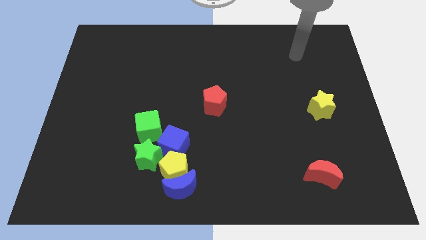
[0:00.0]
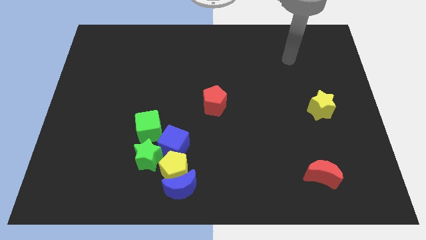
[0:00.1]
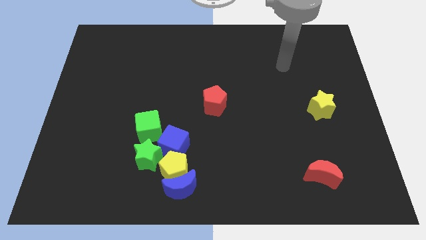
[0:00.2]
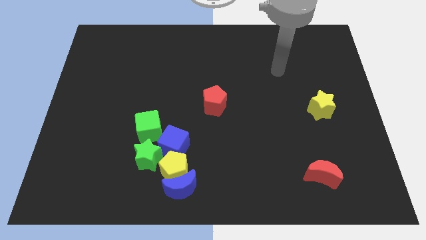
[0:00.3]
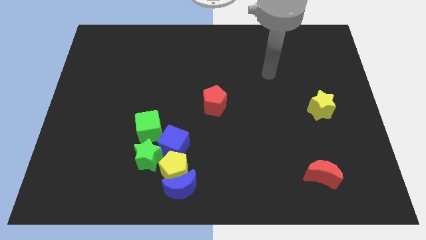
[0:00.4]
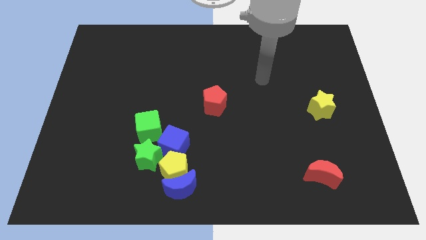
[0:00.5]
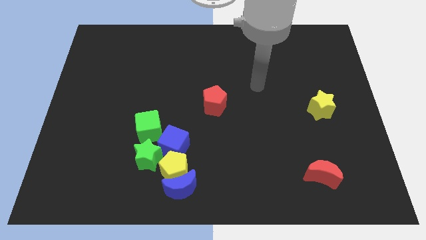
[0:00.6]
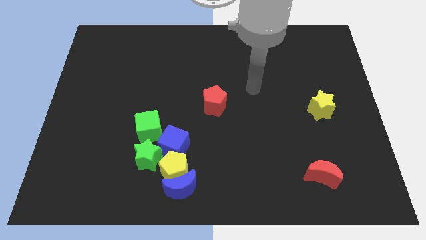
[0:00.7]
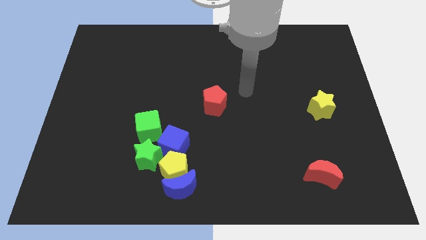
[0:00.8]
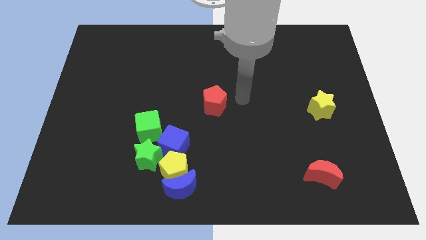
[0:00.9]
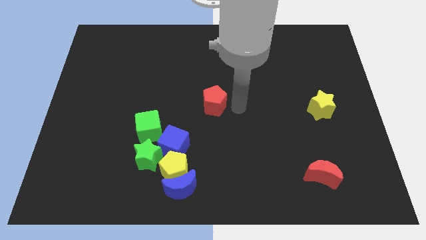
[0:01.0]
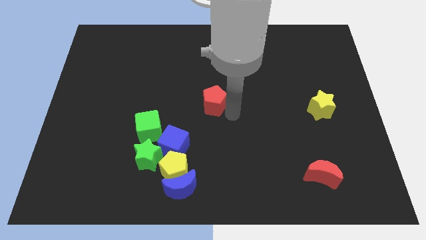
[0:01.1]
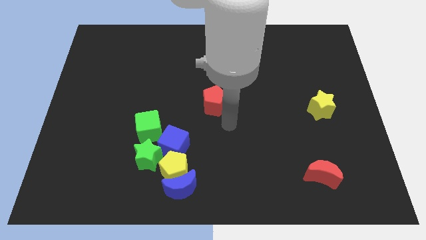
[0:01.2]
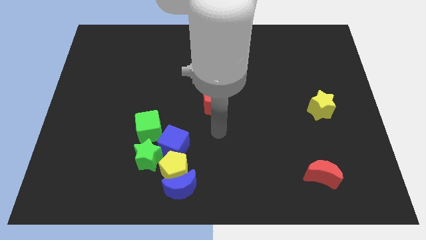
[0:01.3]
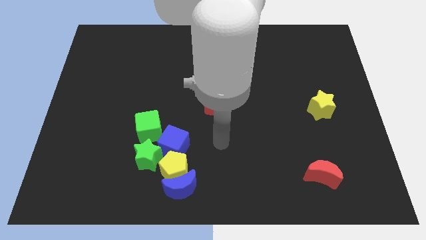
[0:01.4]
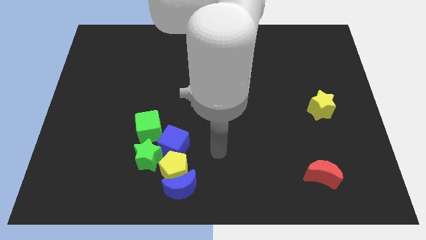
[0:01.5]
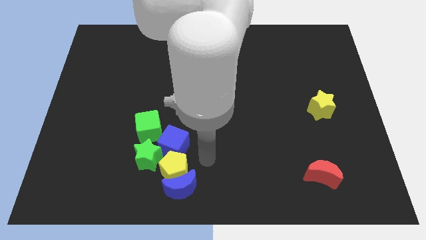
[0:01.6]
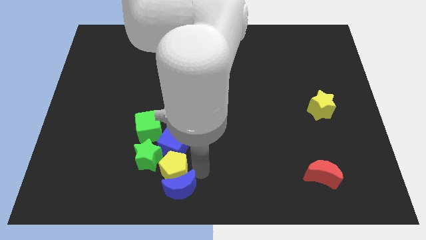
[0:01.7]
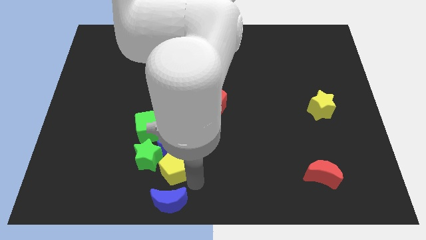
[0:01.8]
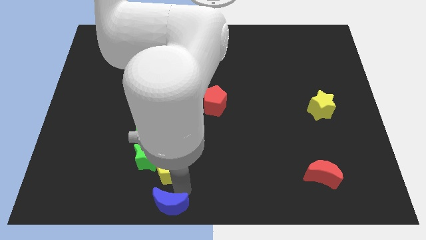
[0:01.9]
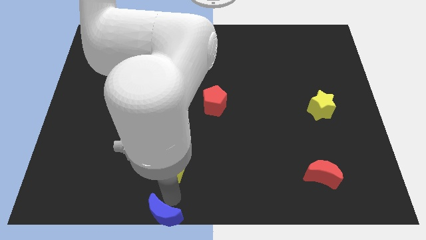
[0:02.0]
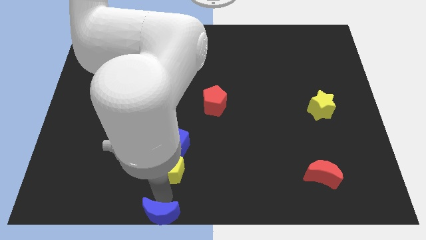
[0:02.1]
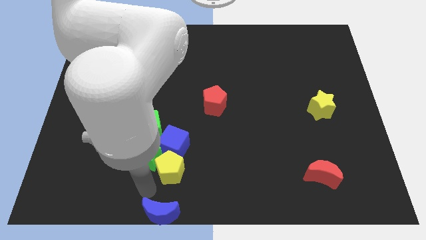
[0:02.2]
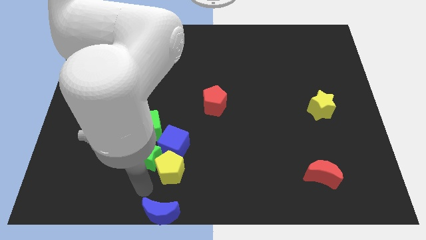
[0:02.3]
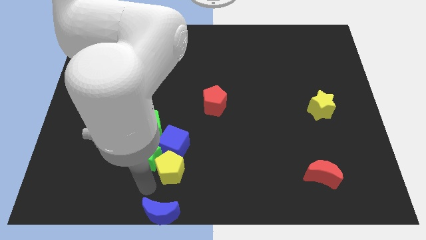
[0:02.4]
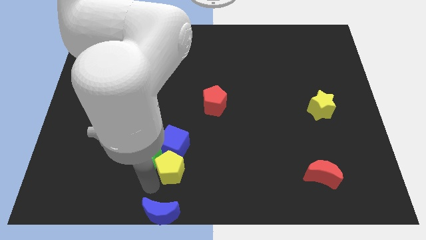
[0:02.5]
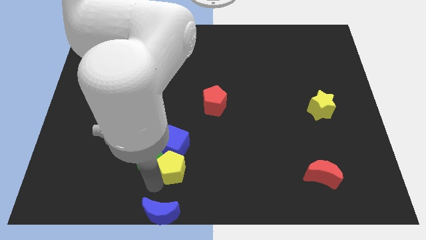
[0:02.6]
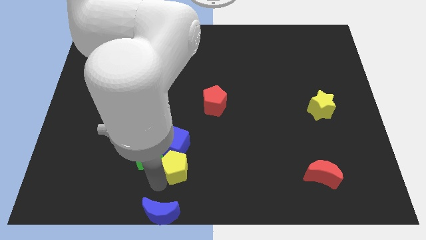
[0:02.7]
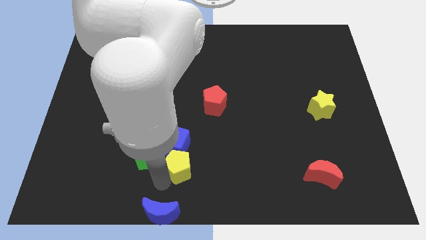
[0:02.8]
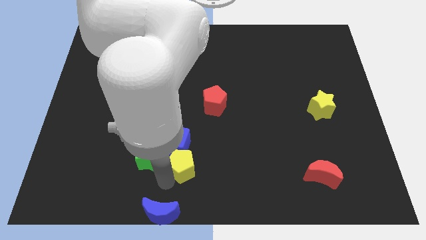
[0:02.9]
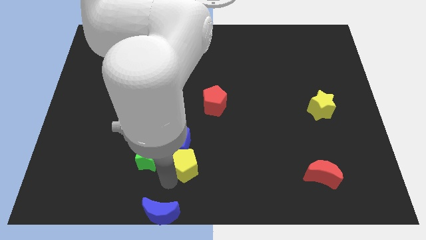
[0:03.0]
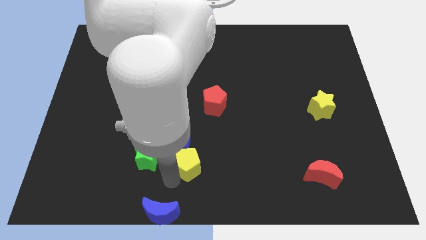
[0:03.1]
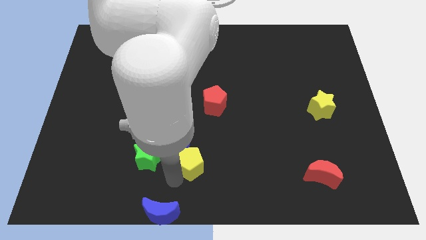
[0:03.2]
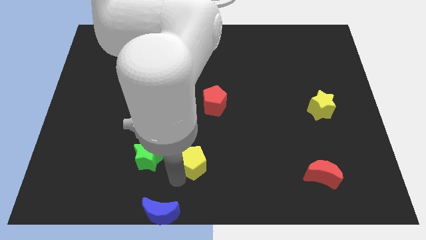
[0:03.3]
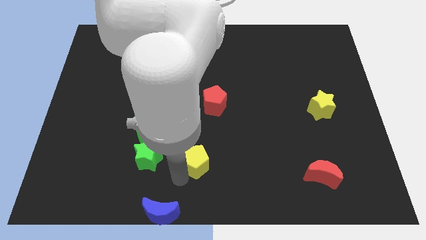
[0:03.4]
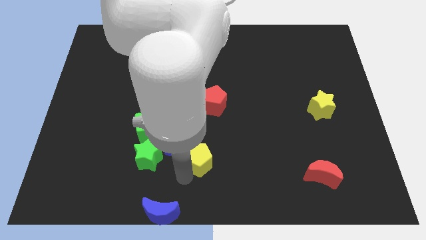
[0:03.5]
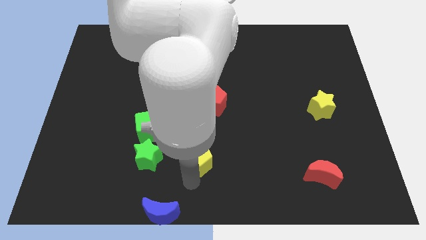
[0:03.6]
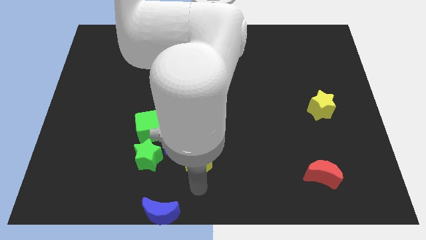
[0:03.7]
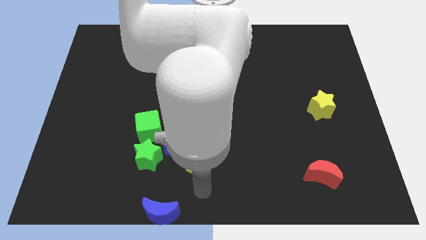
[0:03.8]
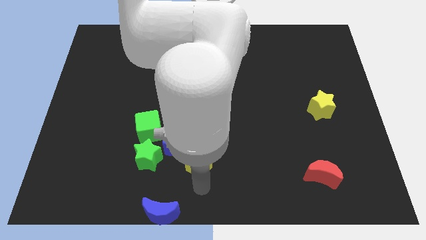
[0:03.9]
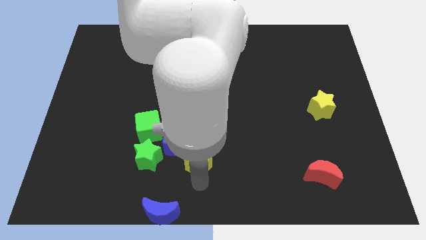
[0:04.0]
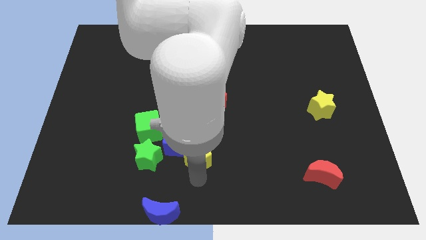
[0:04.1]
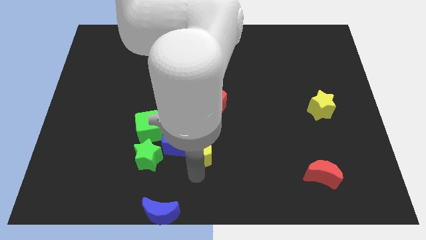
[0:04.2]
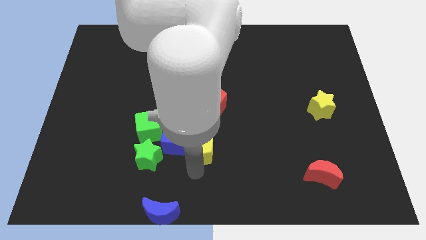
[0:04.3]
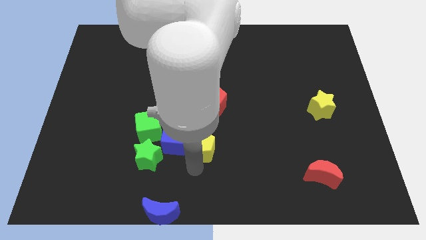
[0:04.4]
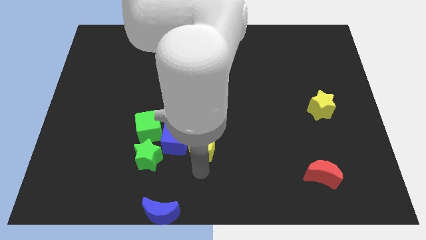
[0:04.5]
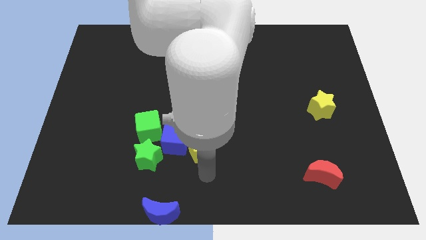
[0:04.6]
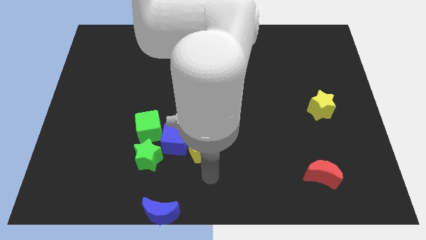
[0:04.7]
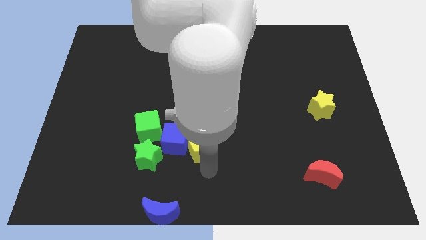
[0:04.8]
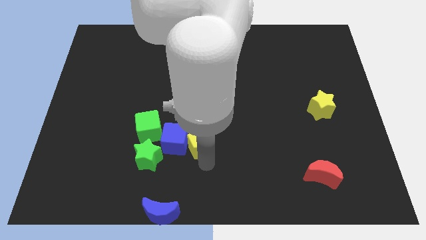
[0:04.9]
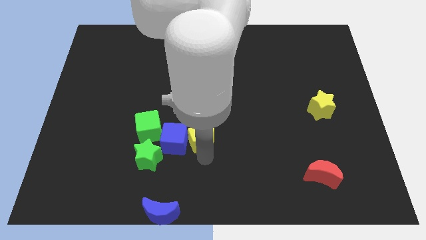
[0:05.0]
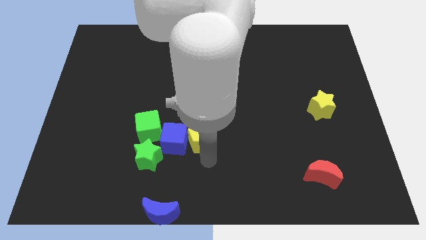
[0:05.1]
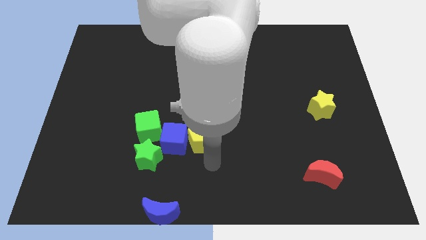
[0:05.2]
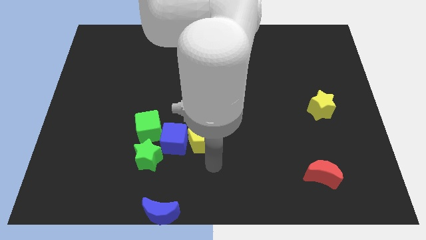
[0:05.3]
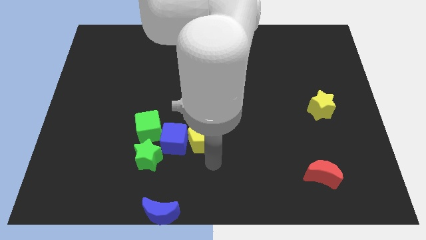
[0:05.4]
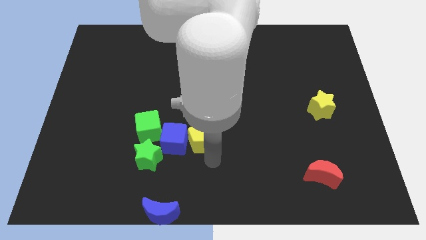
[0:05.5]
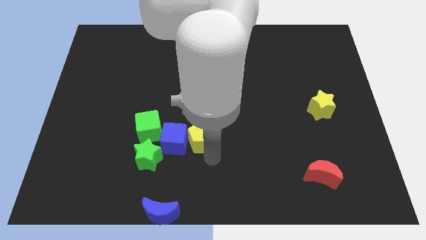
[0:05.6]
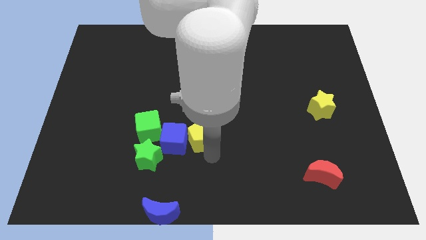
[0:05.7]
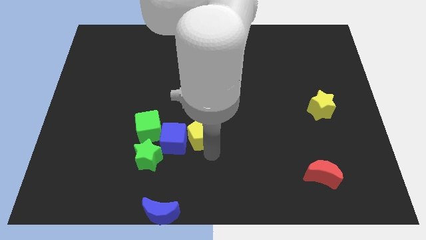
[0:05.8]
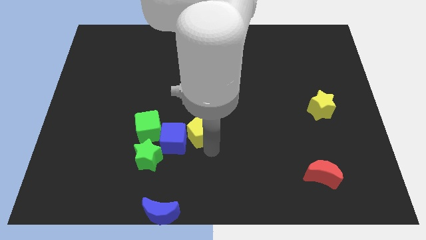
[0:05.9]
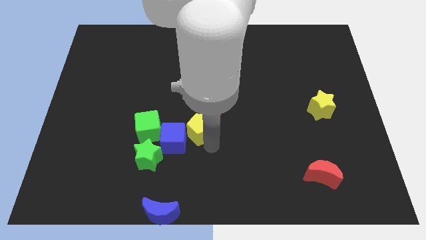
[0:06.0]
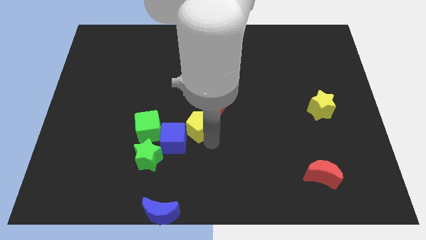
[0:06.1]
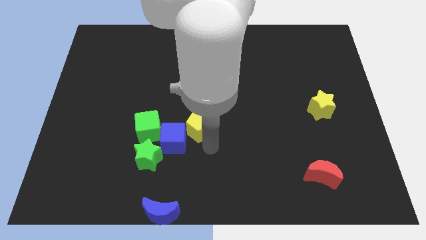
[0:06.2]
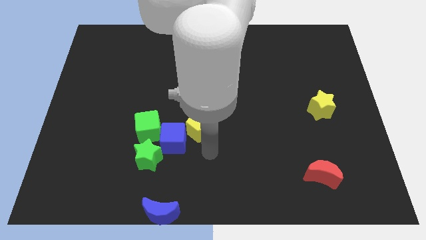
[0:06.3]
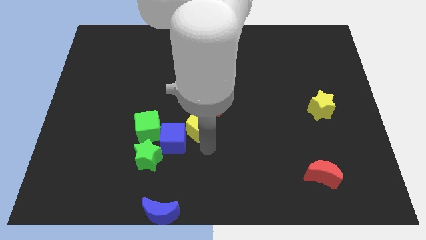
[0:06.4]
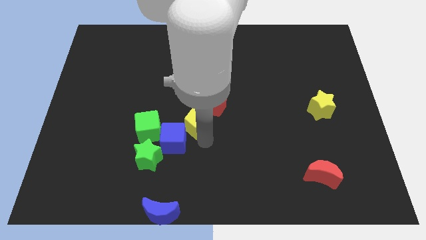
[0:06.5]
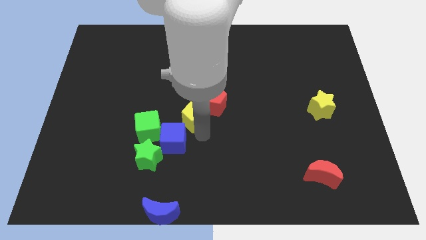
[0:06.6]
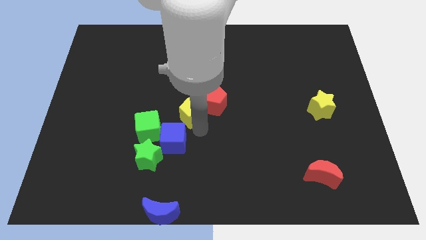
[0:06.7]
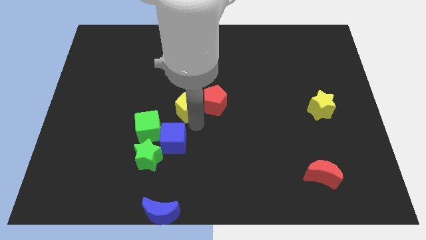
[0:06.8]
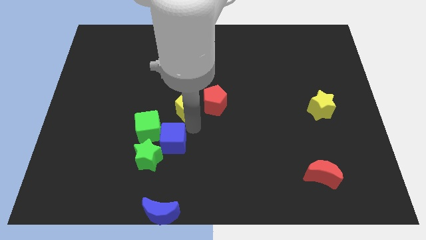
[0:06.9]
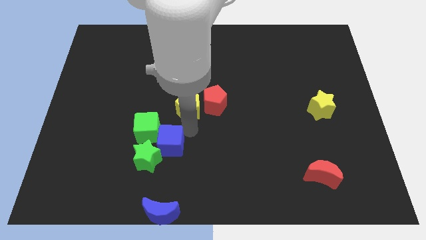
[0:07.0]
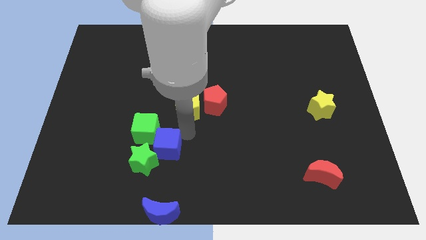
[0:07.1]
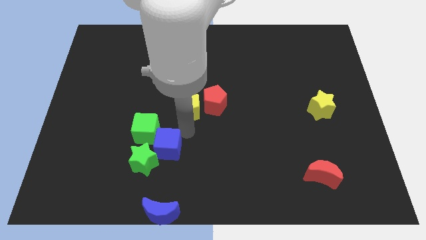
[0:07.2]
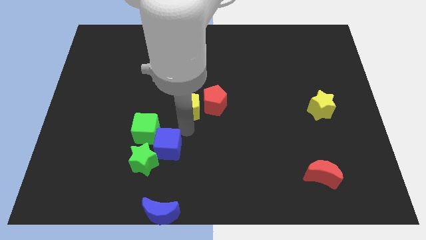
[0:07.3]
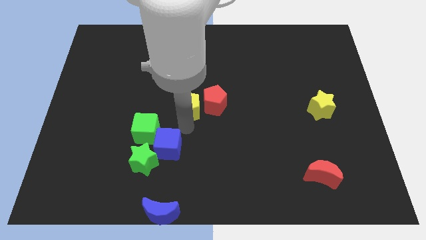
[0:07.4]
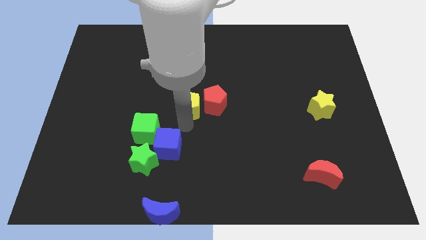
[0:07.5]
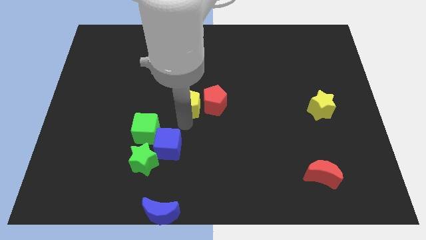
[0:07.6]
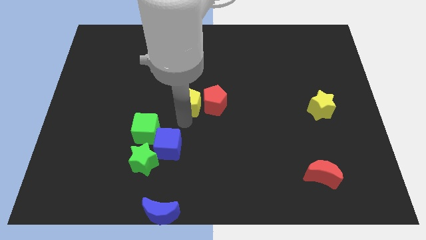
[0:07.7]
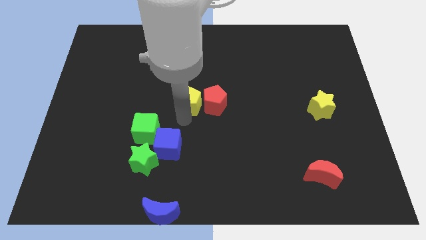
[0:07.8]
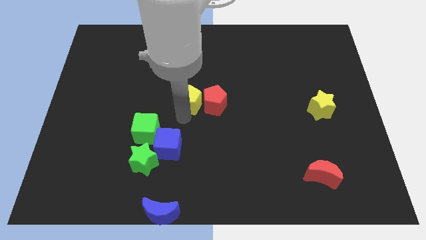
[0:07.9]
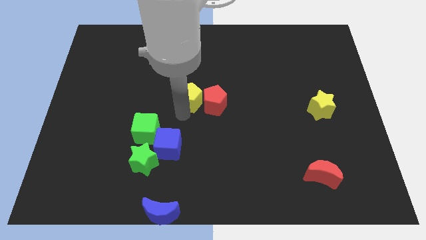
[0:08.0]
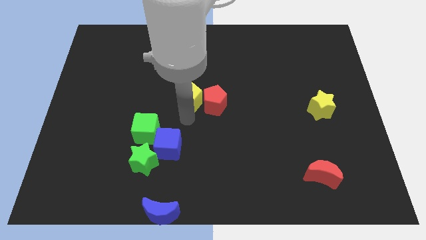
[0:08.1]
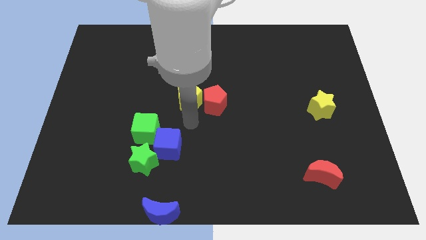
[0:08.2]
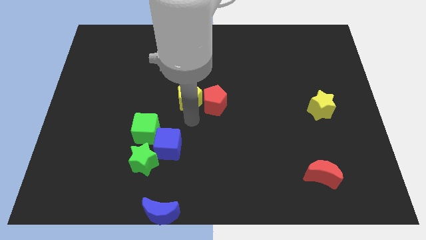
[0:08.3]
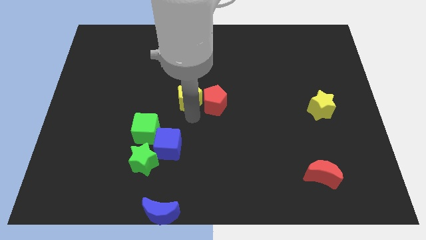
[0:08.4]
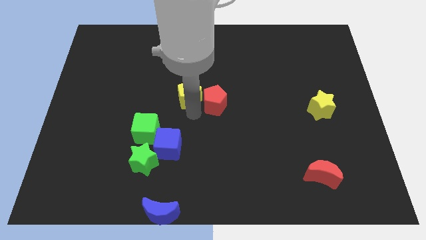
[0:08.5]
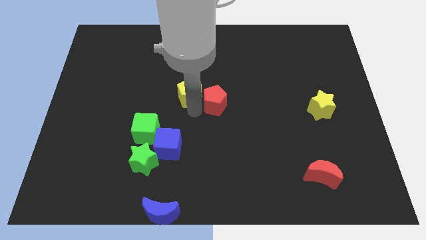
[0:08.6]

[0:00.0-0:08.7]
move the yellow pentagon upwards
